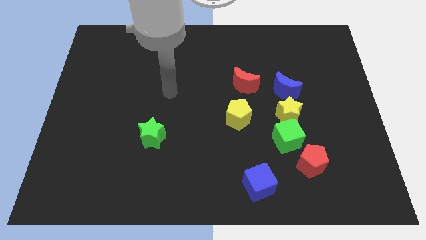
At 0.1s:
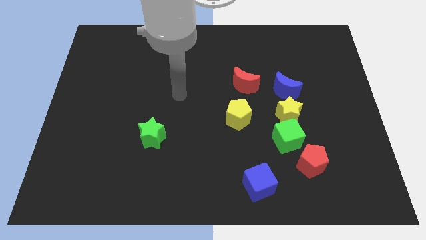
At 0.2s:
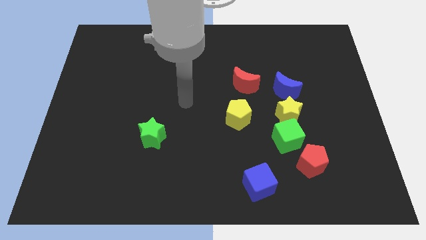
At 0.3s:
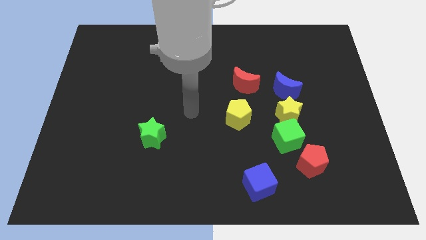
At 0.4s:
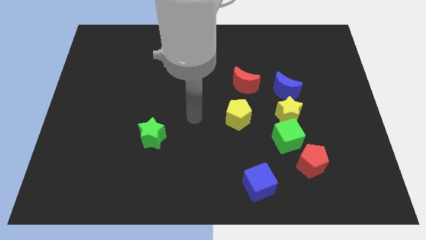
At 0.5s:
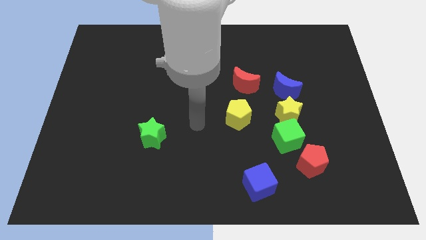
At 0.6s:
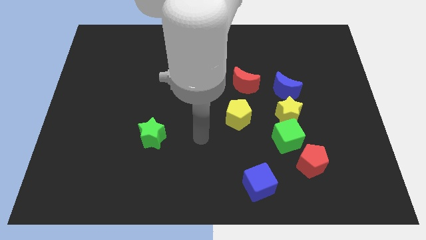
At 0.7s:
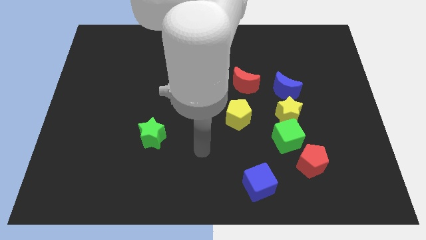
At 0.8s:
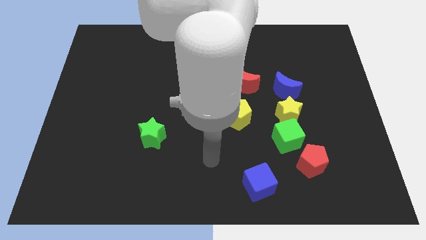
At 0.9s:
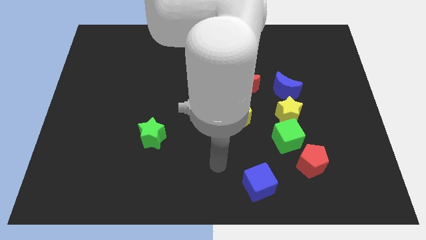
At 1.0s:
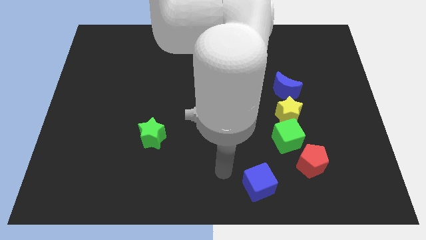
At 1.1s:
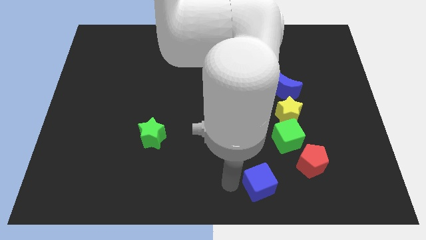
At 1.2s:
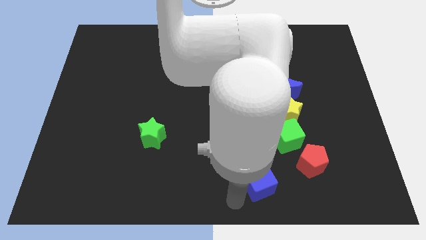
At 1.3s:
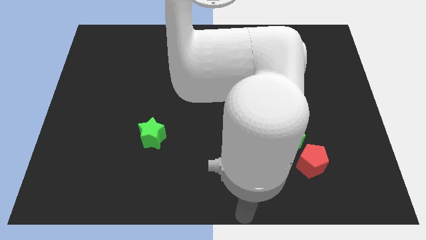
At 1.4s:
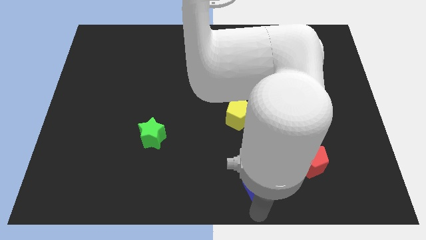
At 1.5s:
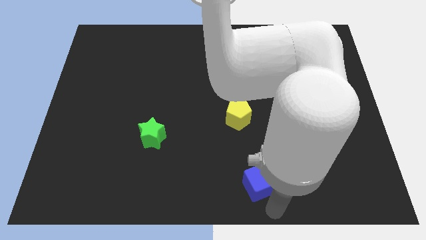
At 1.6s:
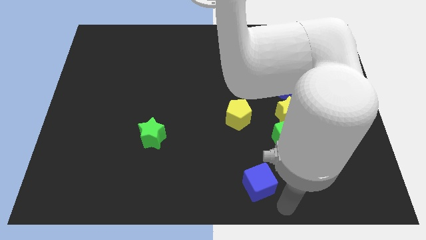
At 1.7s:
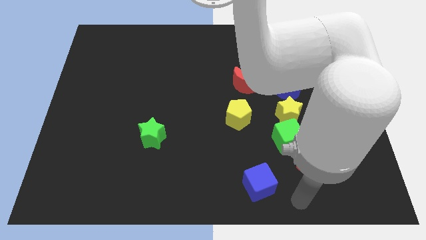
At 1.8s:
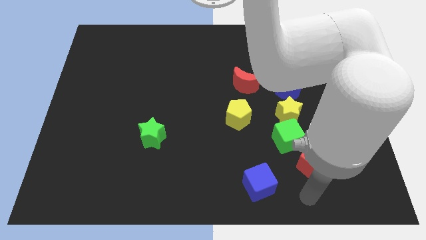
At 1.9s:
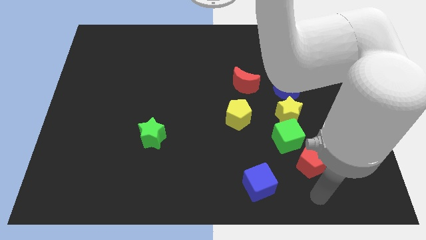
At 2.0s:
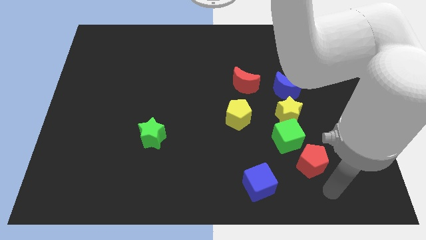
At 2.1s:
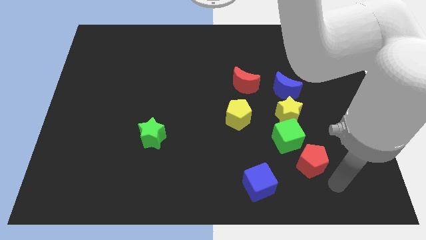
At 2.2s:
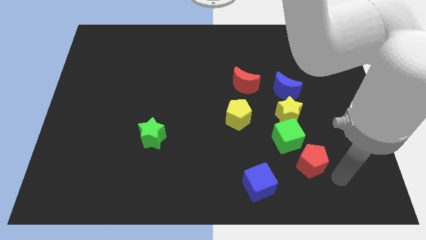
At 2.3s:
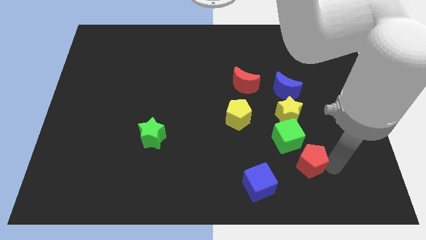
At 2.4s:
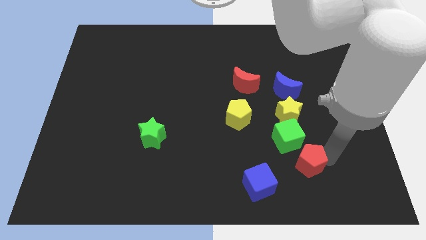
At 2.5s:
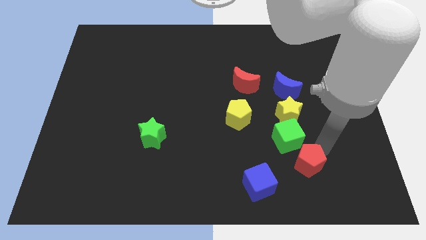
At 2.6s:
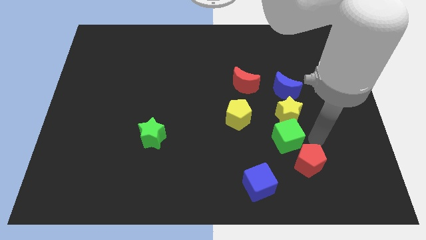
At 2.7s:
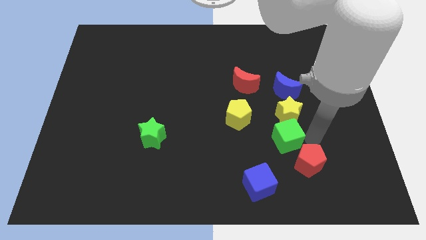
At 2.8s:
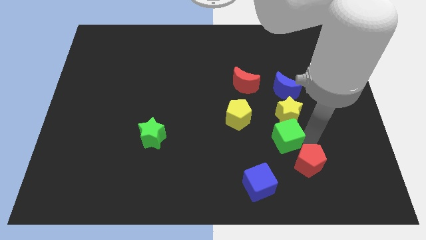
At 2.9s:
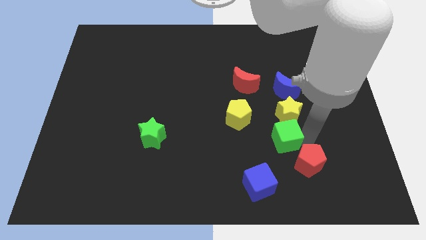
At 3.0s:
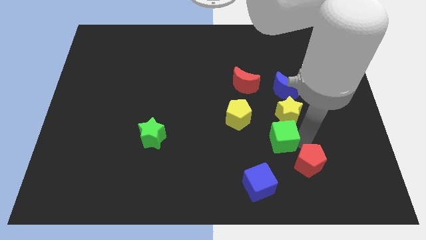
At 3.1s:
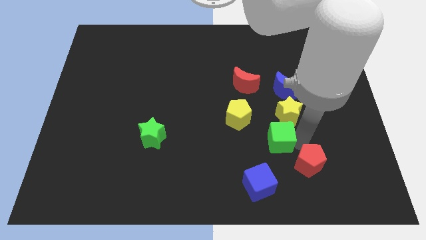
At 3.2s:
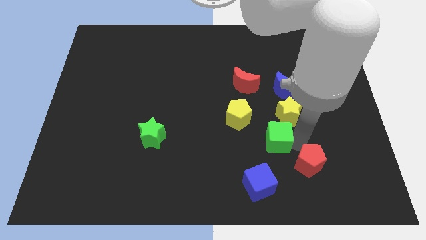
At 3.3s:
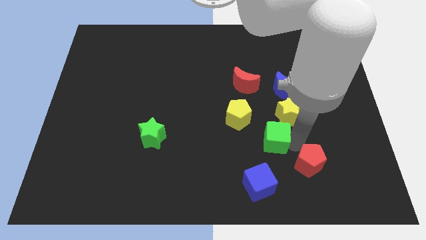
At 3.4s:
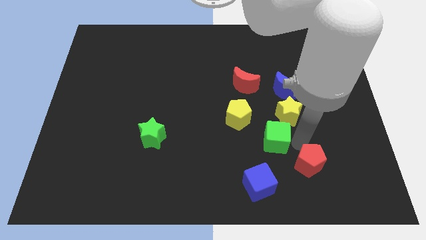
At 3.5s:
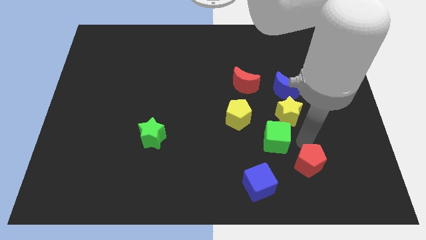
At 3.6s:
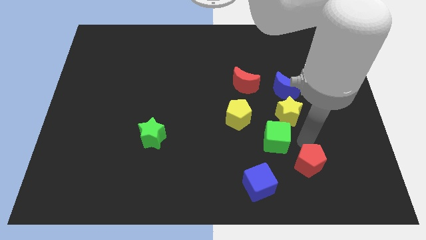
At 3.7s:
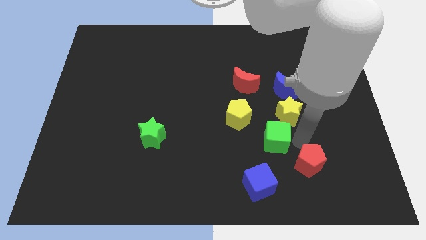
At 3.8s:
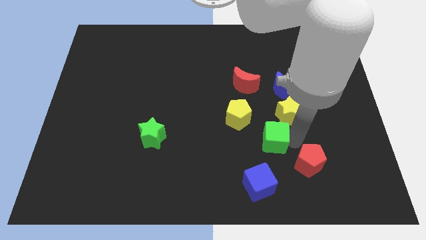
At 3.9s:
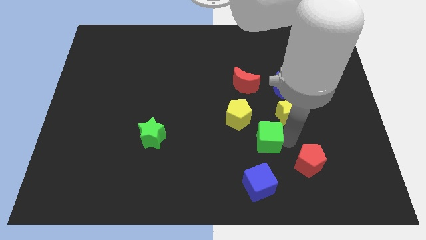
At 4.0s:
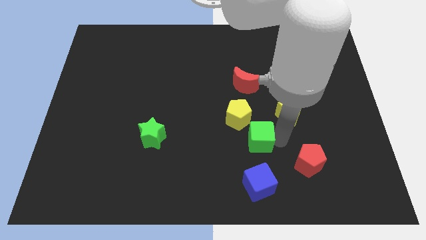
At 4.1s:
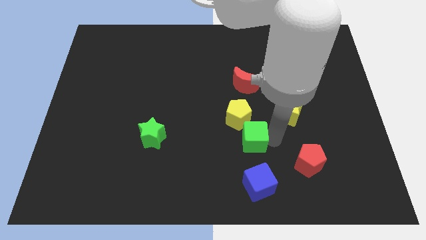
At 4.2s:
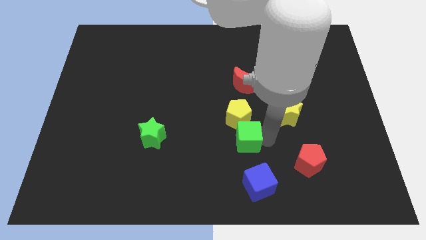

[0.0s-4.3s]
separate the green cube from the yellow star and red pentagon

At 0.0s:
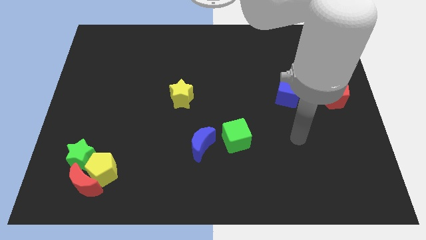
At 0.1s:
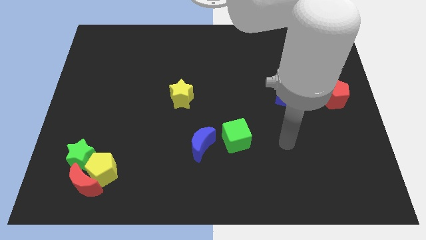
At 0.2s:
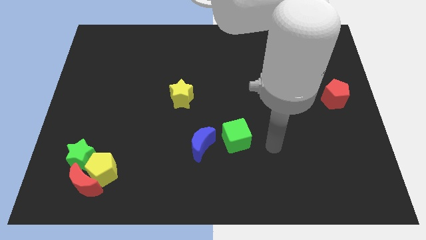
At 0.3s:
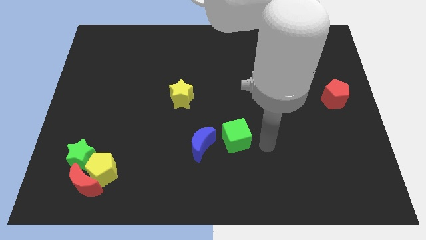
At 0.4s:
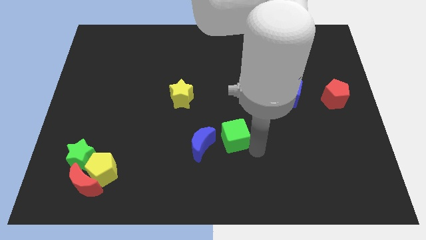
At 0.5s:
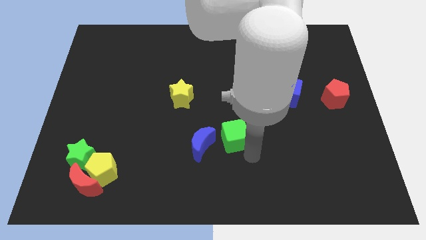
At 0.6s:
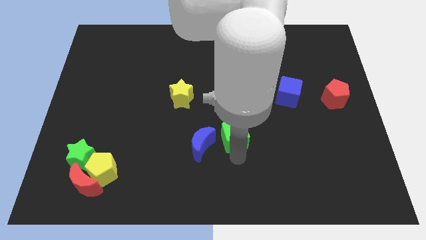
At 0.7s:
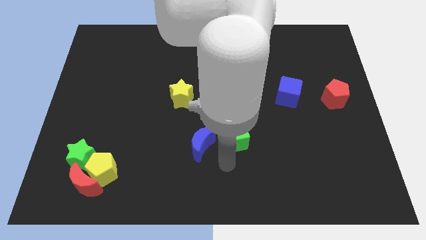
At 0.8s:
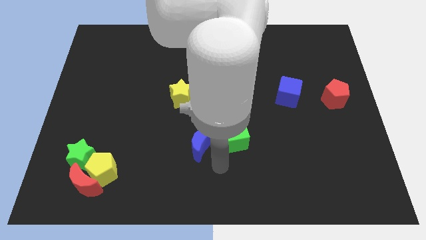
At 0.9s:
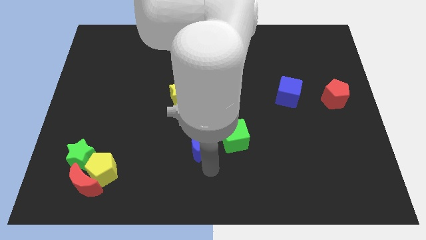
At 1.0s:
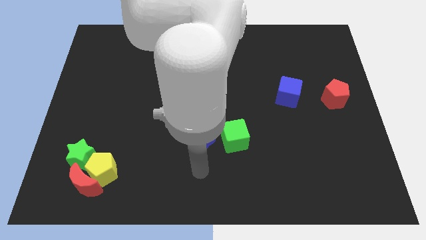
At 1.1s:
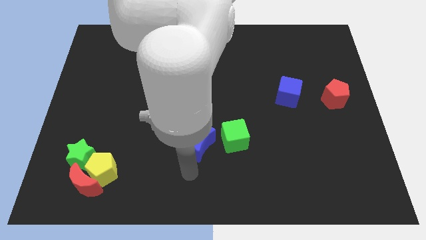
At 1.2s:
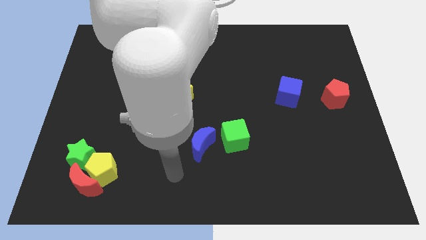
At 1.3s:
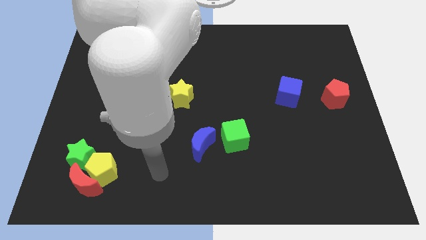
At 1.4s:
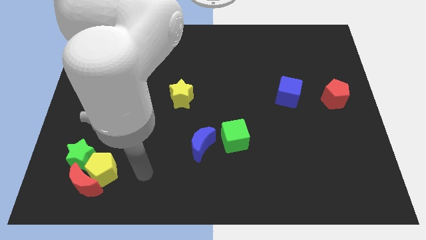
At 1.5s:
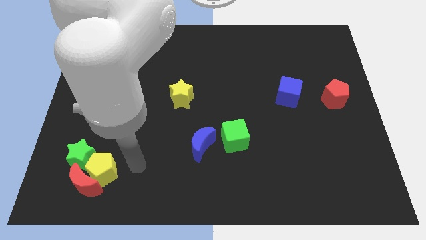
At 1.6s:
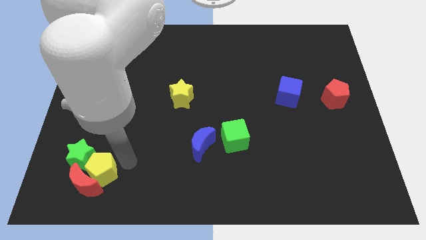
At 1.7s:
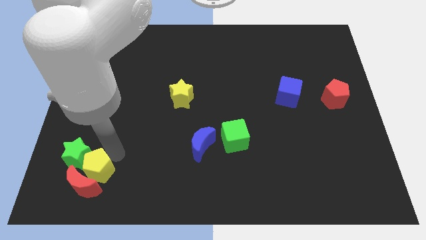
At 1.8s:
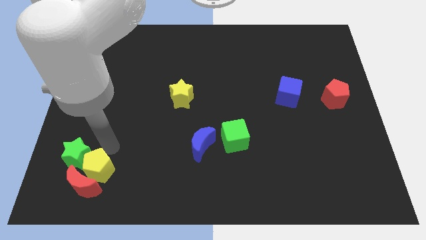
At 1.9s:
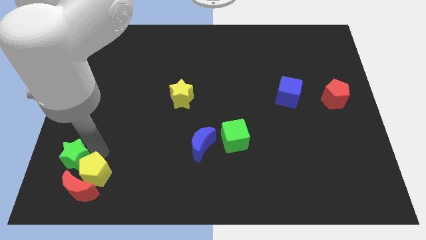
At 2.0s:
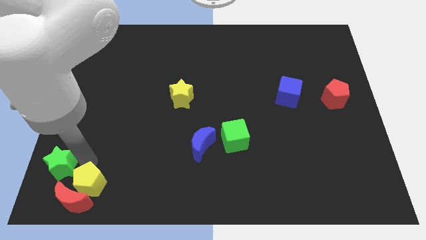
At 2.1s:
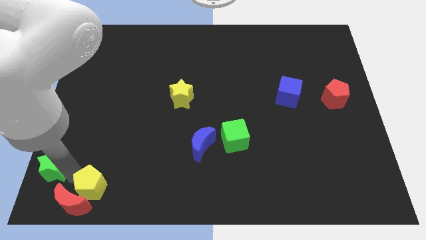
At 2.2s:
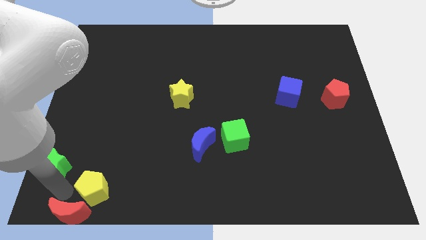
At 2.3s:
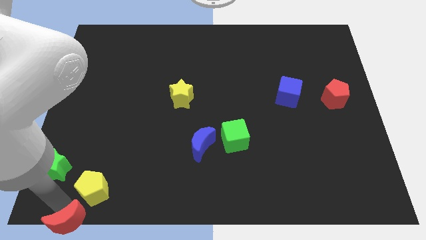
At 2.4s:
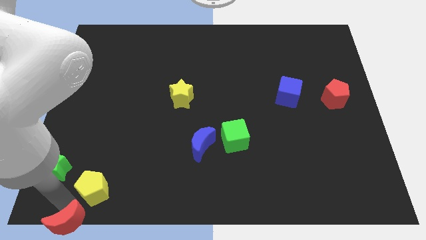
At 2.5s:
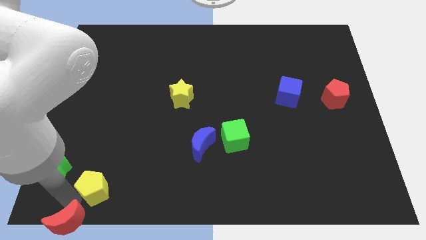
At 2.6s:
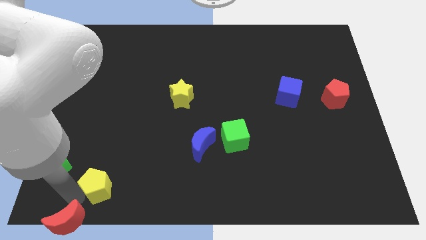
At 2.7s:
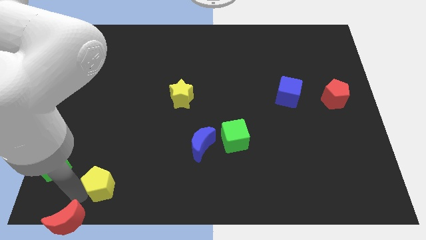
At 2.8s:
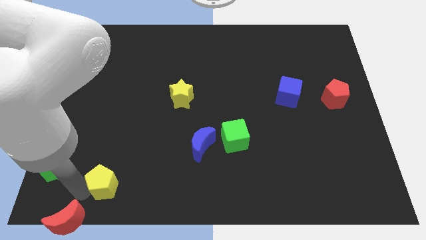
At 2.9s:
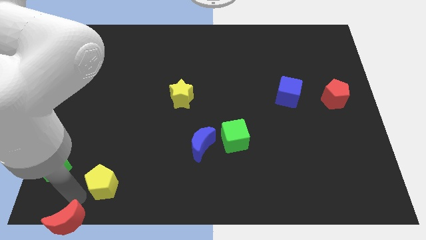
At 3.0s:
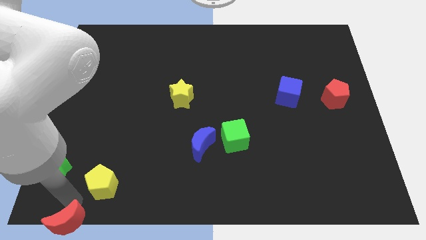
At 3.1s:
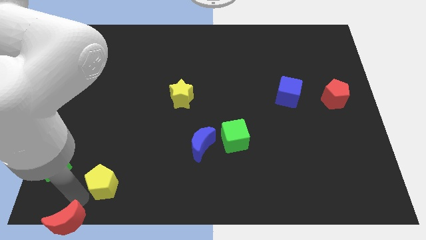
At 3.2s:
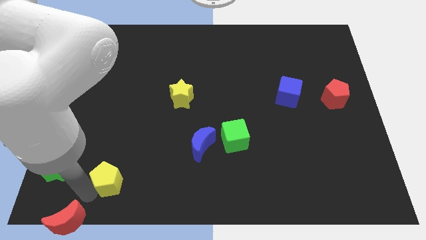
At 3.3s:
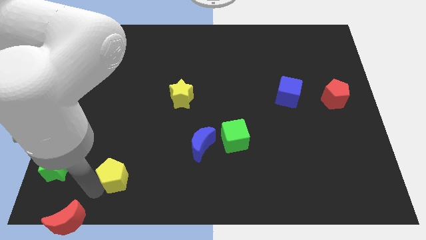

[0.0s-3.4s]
separate the yellow pentagon from the red moon and green star

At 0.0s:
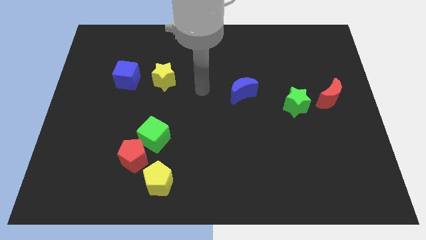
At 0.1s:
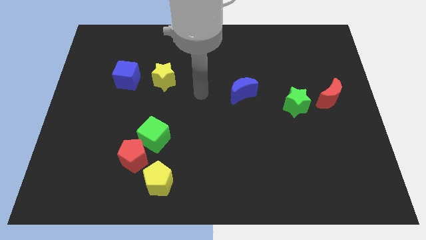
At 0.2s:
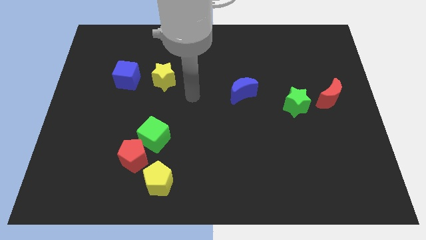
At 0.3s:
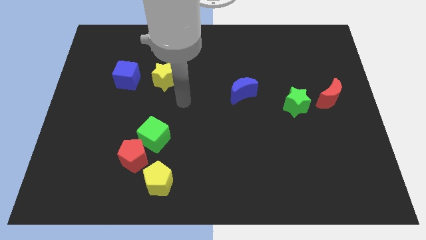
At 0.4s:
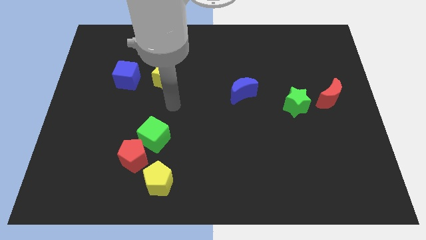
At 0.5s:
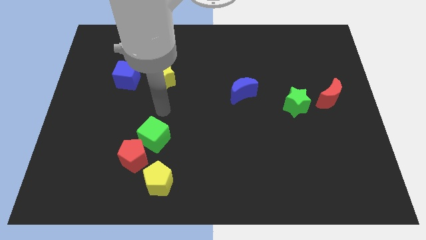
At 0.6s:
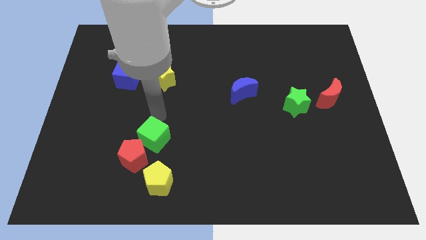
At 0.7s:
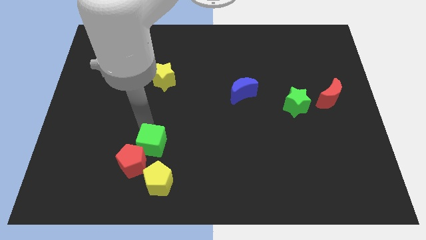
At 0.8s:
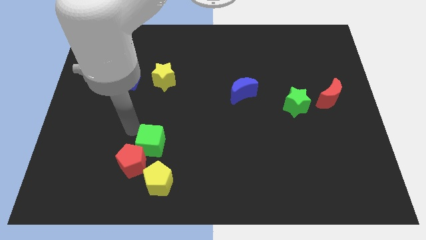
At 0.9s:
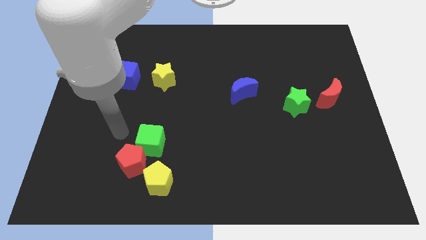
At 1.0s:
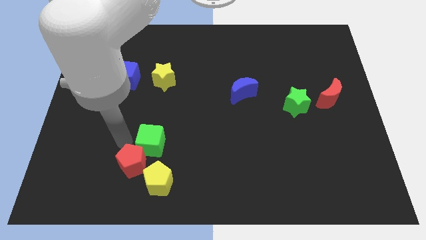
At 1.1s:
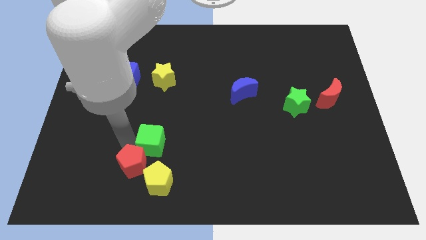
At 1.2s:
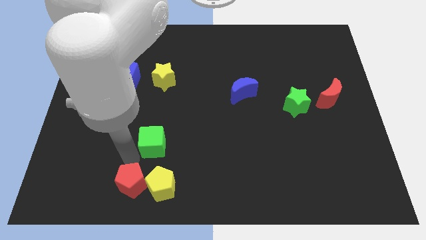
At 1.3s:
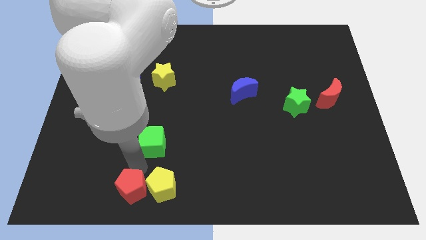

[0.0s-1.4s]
move the green cube away from the red pentagon

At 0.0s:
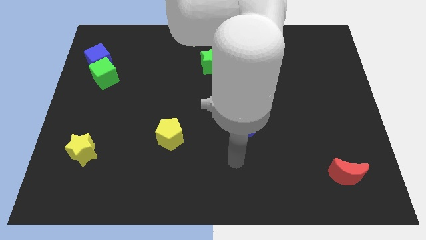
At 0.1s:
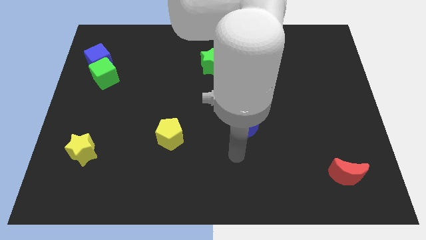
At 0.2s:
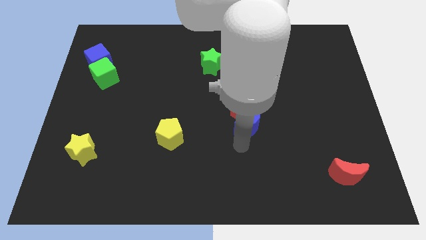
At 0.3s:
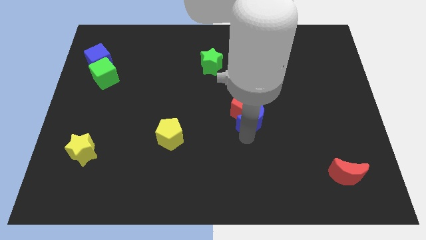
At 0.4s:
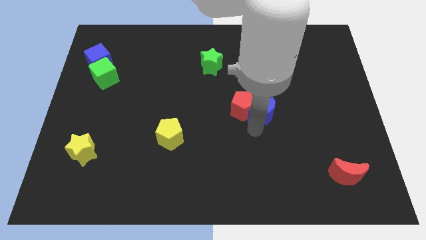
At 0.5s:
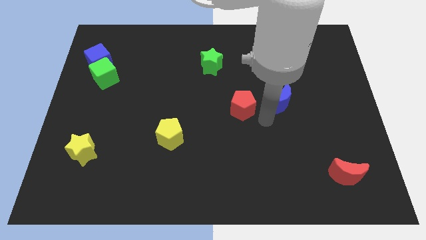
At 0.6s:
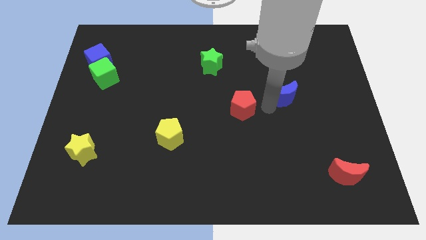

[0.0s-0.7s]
pull the red pentagon apart from the blue moon
